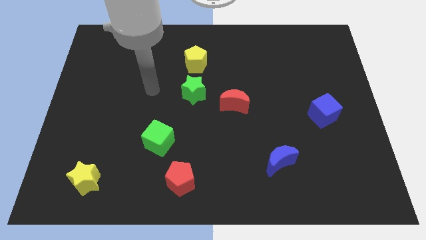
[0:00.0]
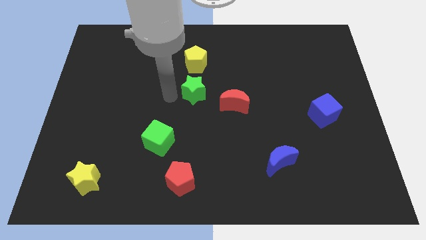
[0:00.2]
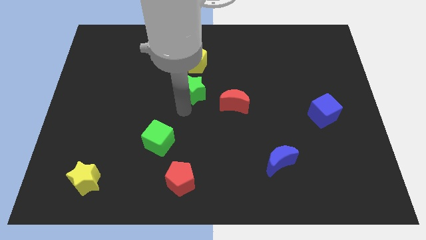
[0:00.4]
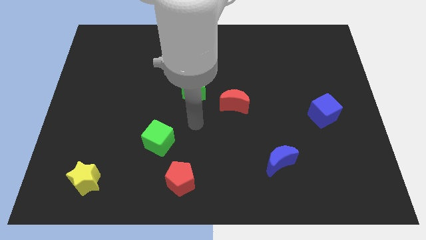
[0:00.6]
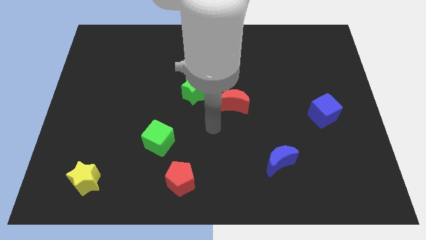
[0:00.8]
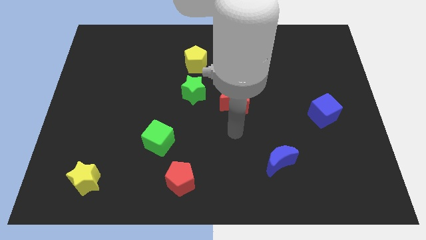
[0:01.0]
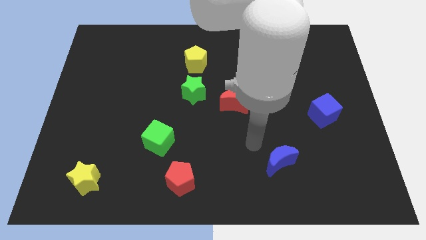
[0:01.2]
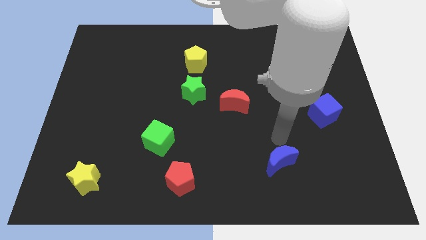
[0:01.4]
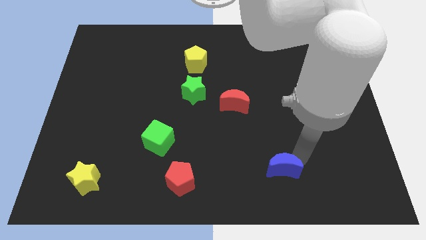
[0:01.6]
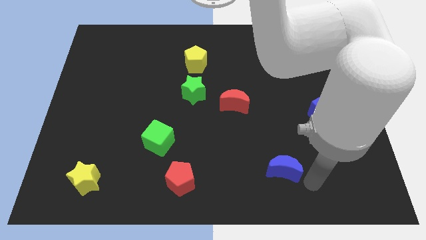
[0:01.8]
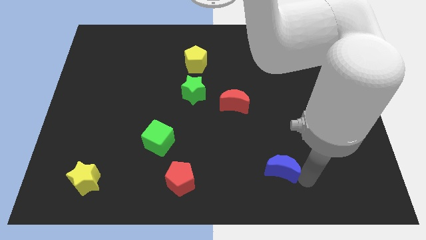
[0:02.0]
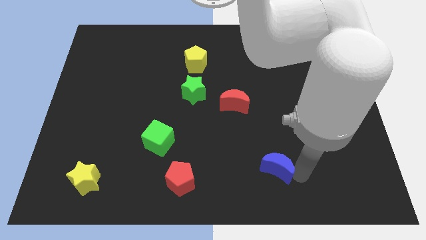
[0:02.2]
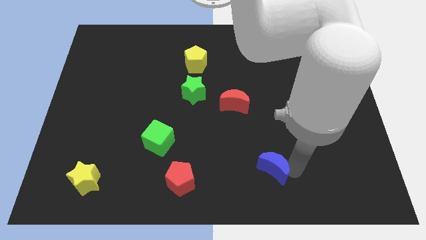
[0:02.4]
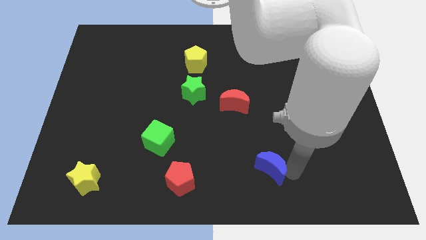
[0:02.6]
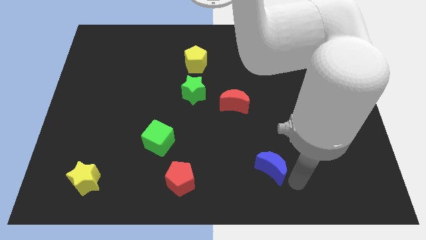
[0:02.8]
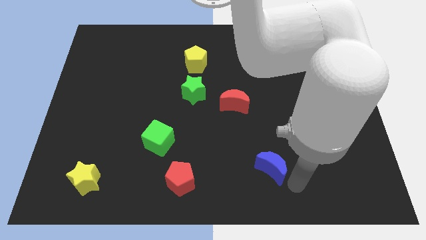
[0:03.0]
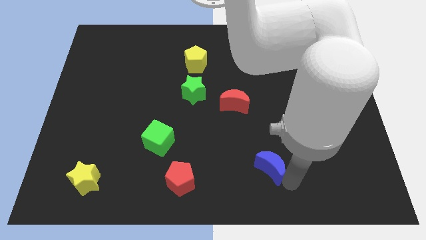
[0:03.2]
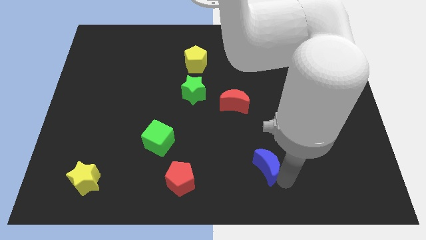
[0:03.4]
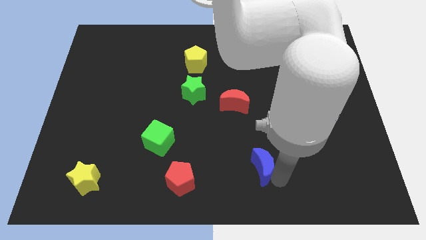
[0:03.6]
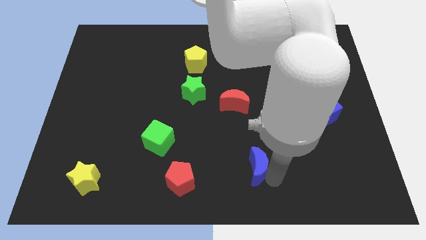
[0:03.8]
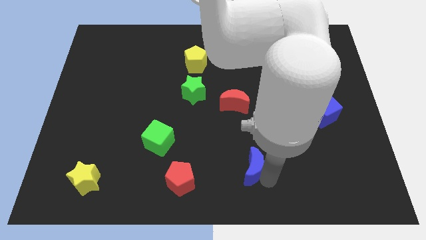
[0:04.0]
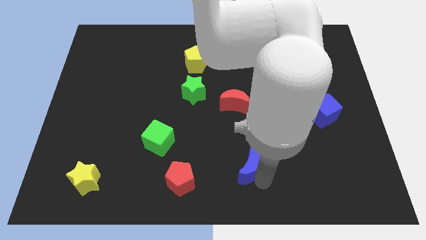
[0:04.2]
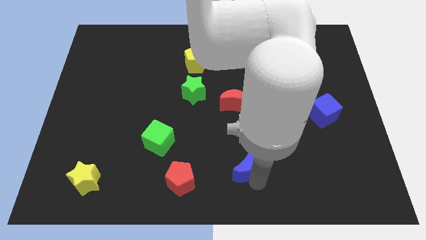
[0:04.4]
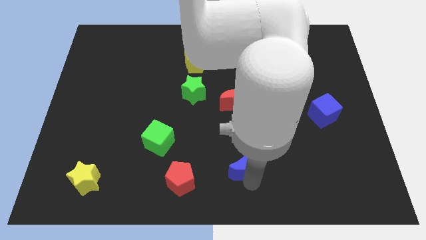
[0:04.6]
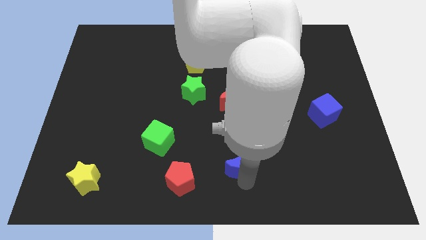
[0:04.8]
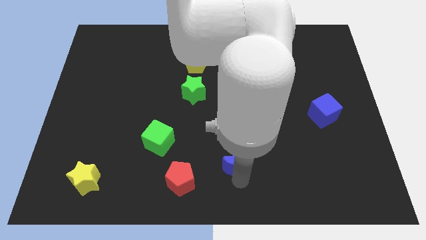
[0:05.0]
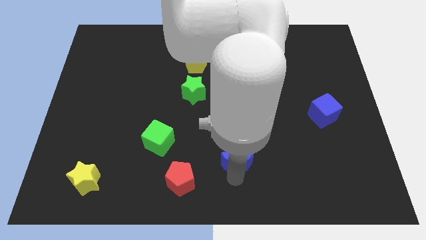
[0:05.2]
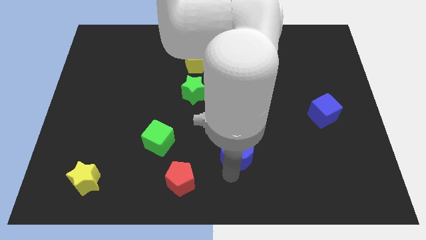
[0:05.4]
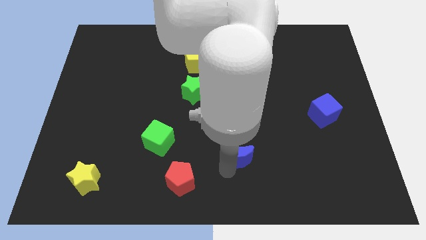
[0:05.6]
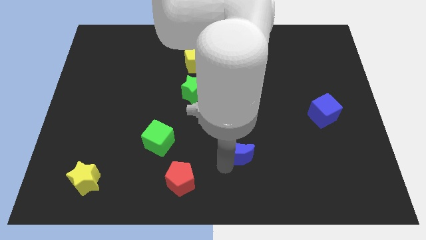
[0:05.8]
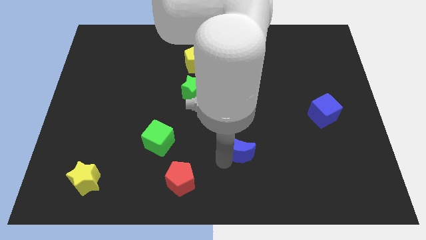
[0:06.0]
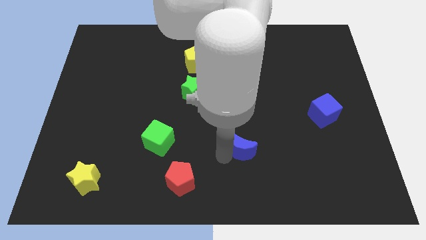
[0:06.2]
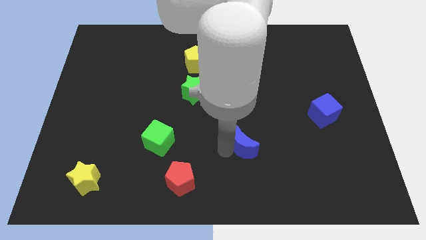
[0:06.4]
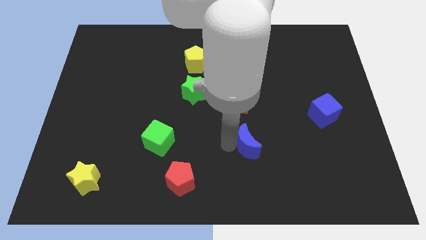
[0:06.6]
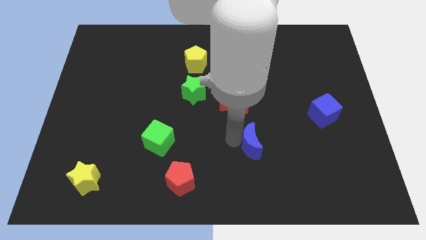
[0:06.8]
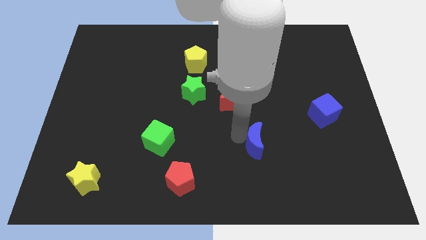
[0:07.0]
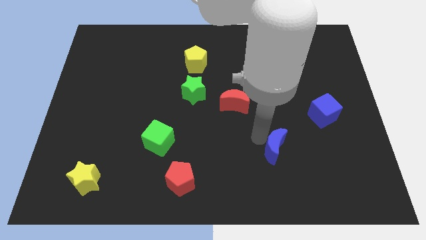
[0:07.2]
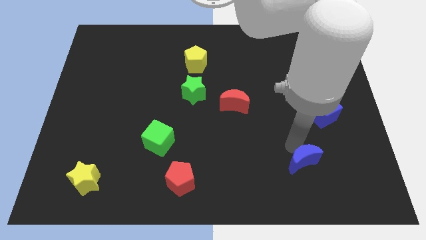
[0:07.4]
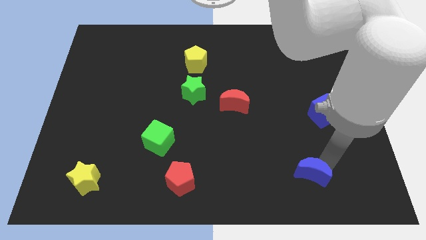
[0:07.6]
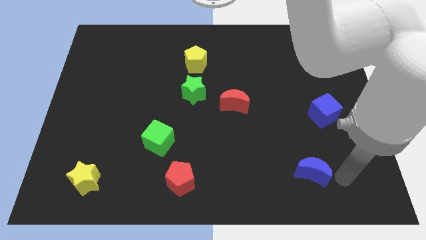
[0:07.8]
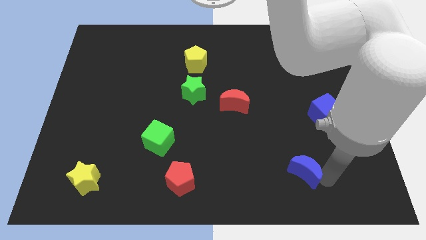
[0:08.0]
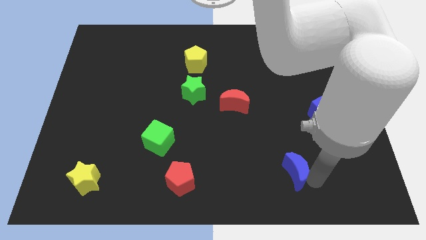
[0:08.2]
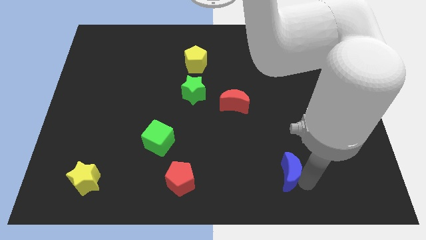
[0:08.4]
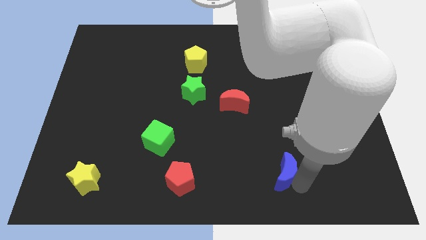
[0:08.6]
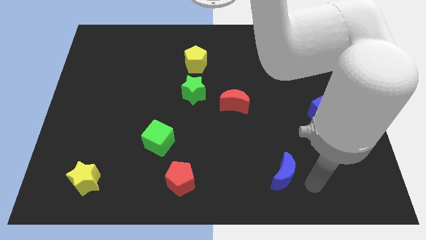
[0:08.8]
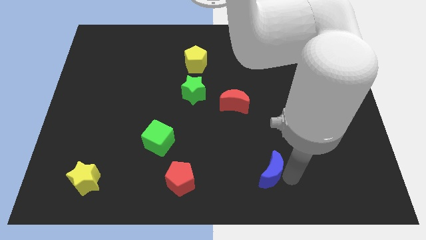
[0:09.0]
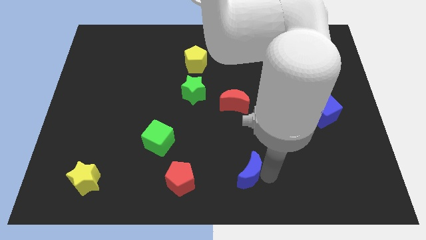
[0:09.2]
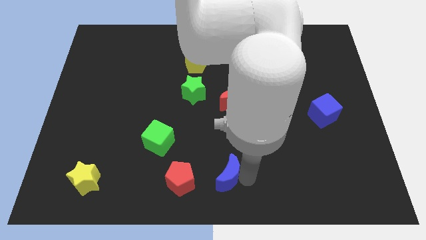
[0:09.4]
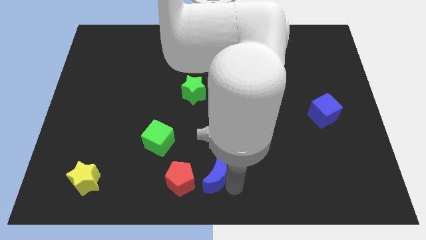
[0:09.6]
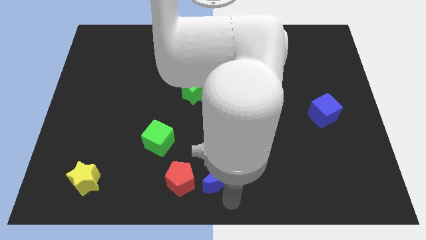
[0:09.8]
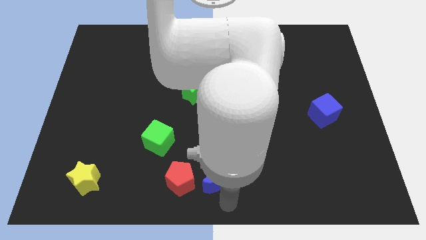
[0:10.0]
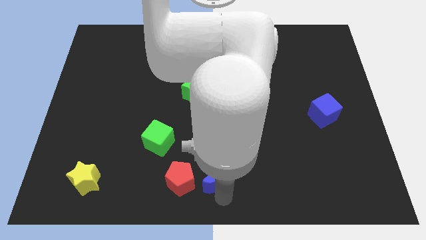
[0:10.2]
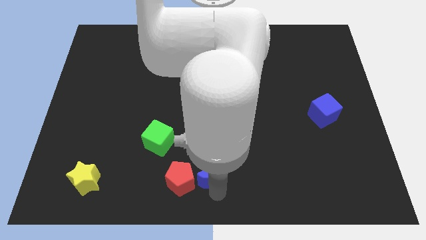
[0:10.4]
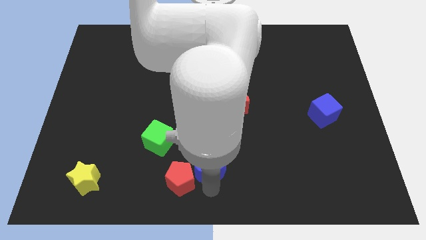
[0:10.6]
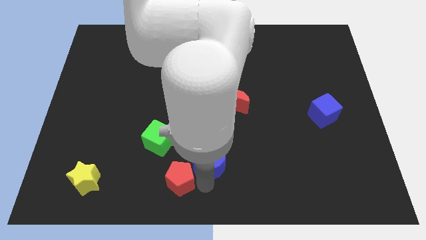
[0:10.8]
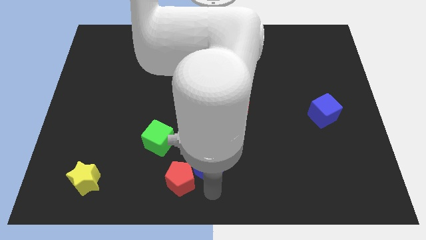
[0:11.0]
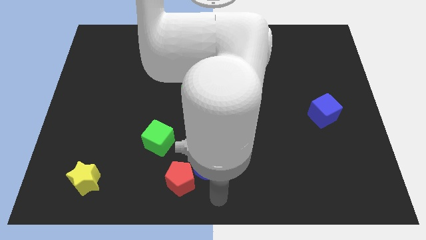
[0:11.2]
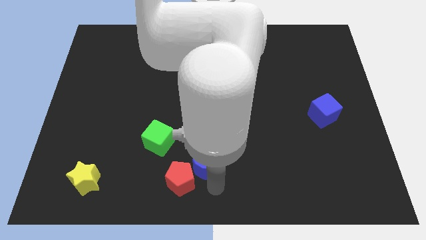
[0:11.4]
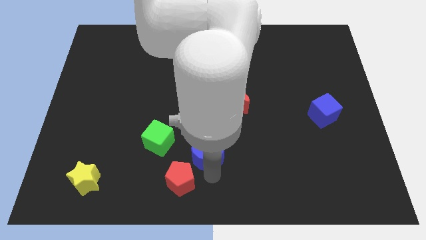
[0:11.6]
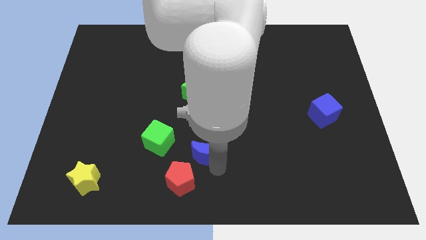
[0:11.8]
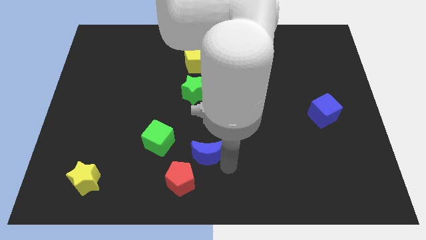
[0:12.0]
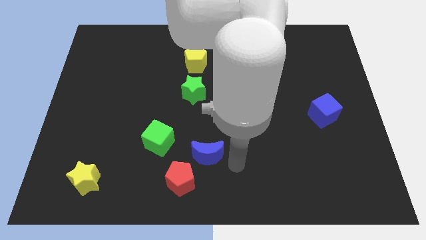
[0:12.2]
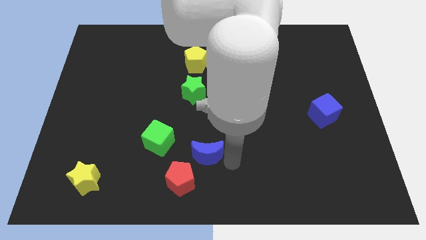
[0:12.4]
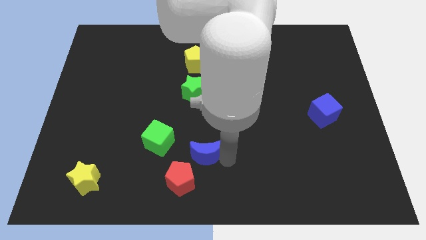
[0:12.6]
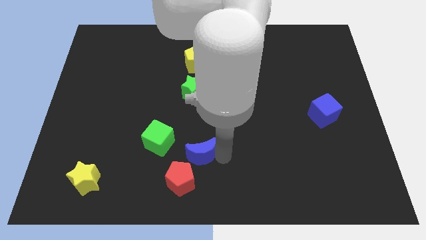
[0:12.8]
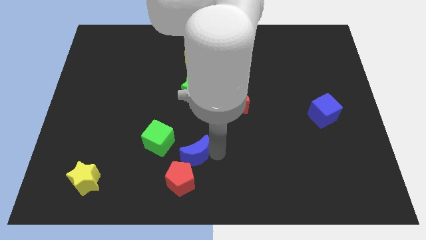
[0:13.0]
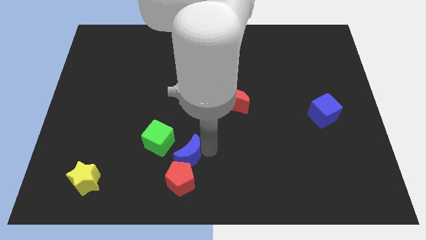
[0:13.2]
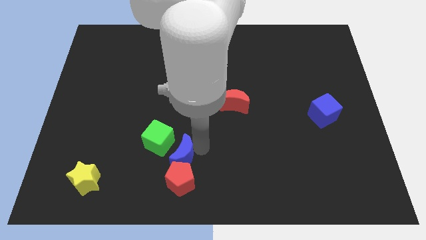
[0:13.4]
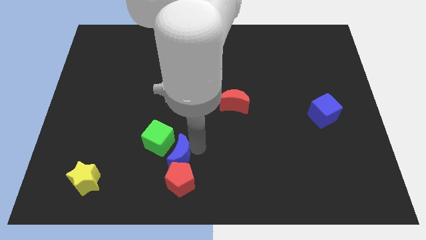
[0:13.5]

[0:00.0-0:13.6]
put the blue moon to the green cube

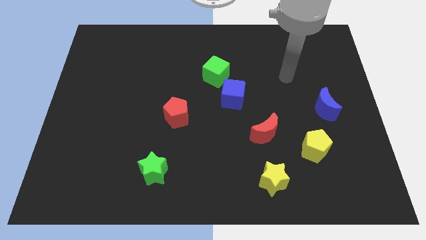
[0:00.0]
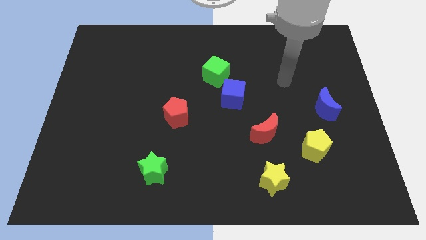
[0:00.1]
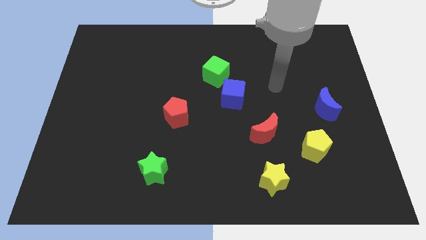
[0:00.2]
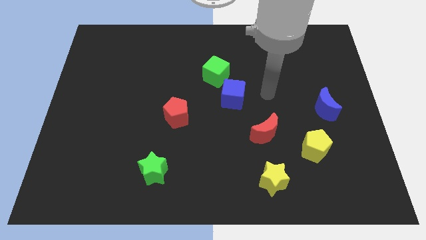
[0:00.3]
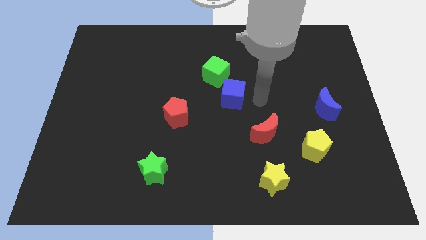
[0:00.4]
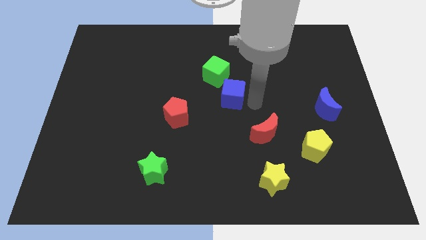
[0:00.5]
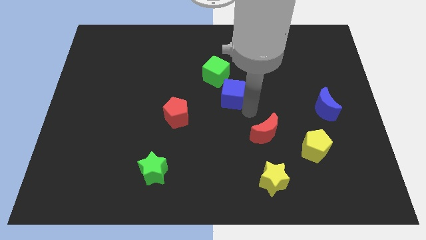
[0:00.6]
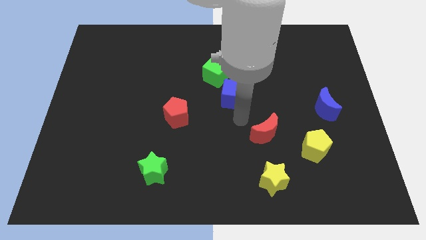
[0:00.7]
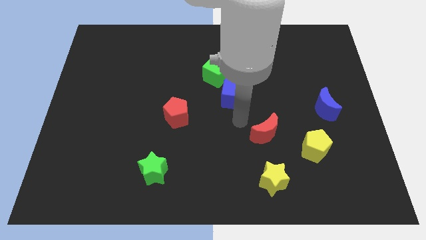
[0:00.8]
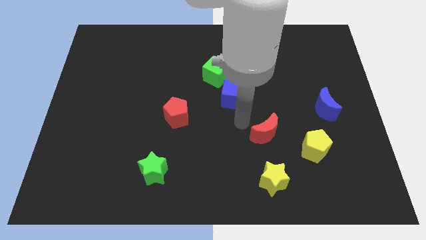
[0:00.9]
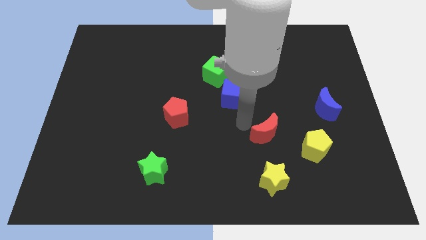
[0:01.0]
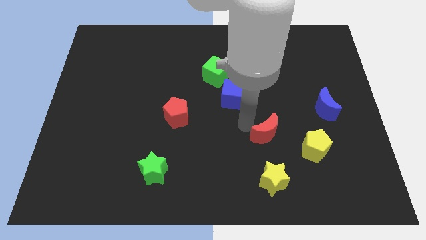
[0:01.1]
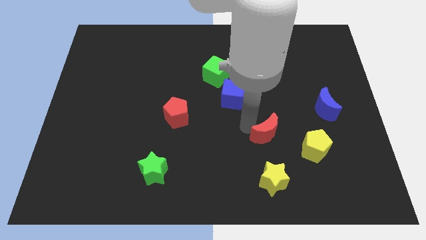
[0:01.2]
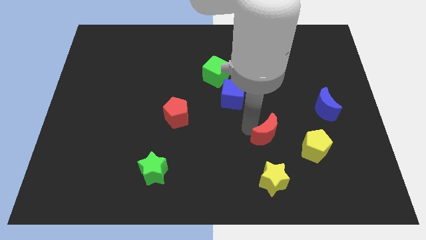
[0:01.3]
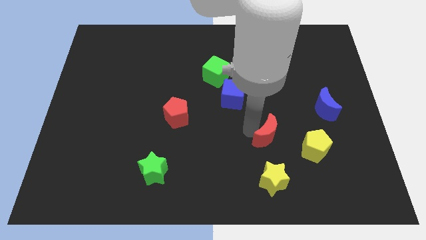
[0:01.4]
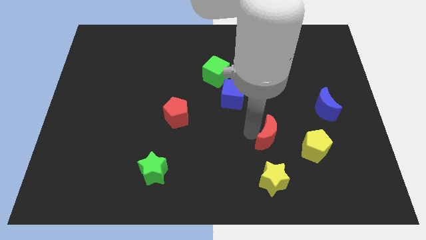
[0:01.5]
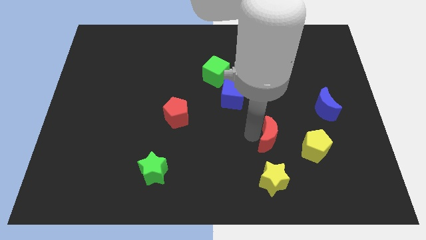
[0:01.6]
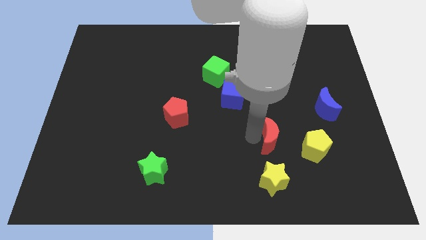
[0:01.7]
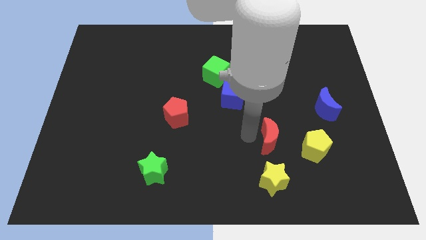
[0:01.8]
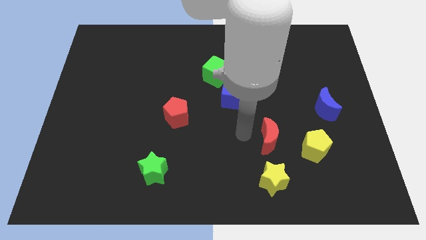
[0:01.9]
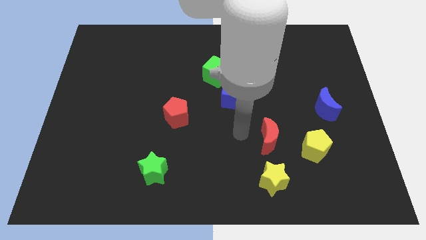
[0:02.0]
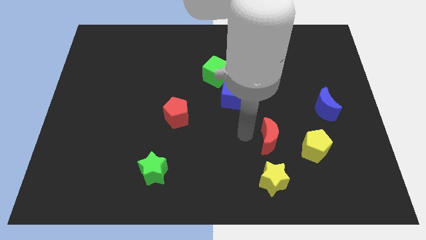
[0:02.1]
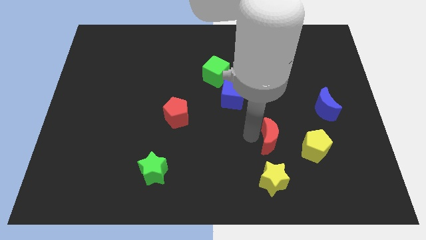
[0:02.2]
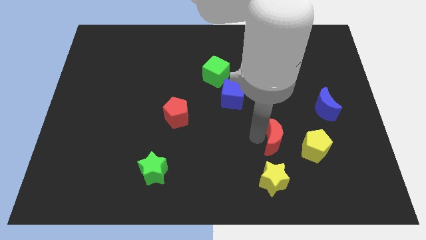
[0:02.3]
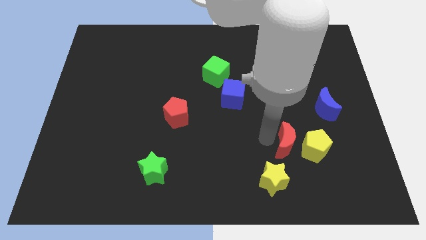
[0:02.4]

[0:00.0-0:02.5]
move the red moon next to the yellow pentagon
